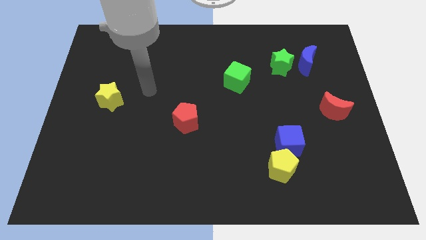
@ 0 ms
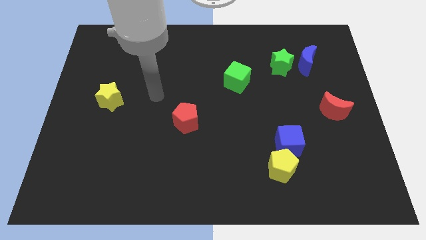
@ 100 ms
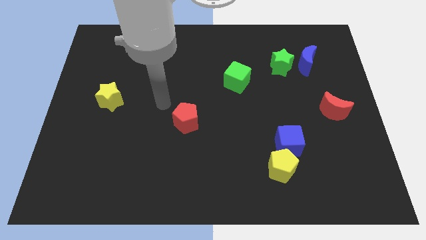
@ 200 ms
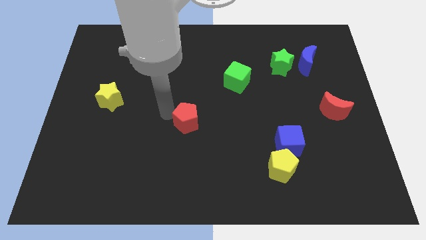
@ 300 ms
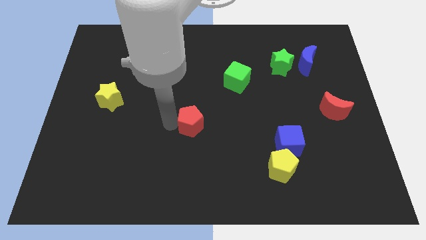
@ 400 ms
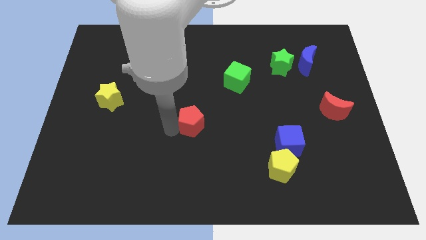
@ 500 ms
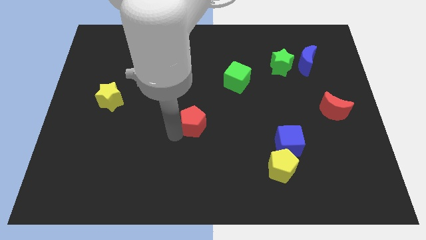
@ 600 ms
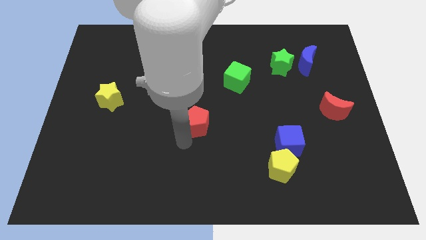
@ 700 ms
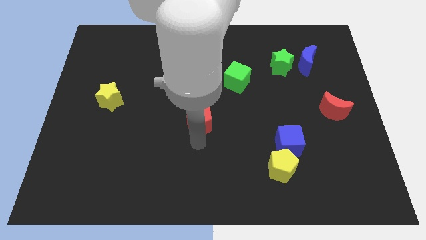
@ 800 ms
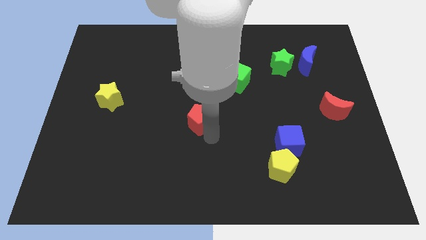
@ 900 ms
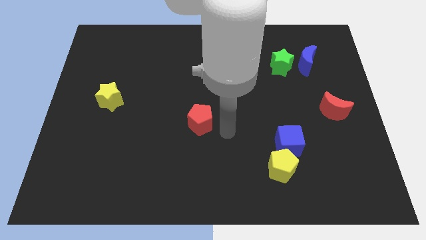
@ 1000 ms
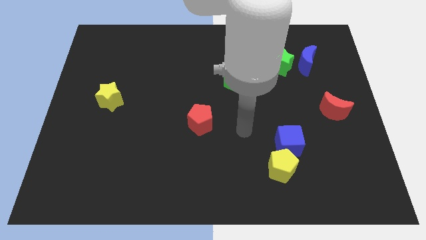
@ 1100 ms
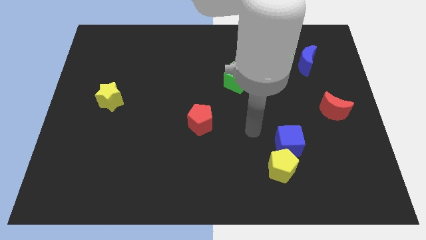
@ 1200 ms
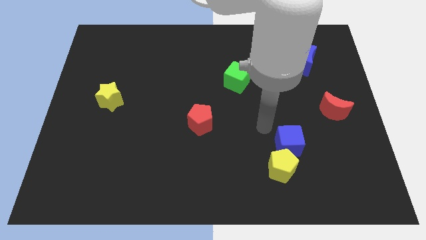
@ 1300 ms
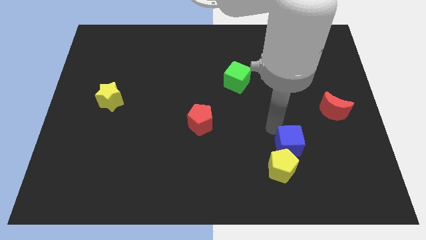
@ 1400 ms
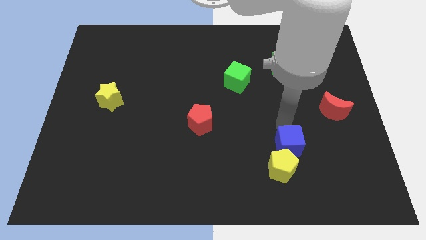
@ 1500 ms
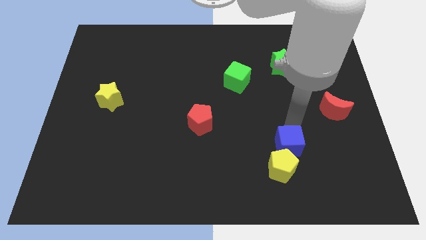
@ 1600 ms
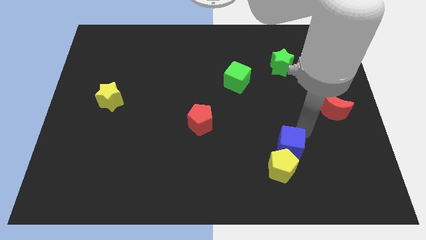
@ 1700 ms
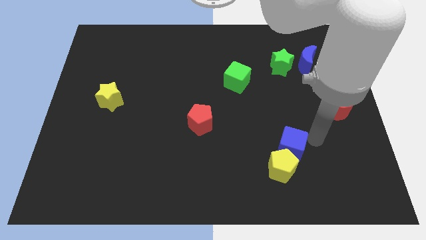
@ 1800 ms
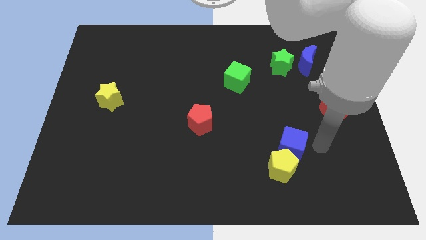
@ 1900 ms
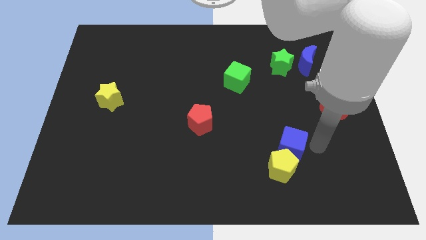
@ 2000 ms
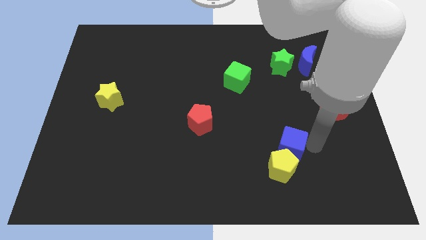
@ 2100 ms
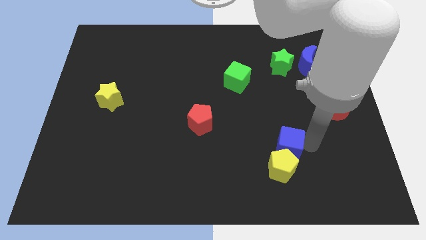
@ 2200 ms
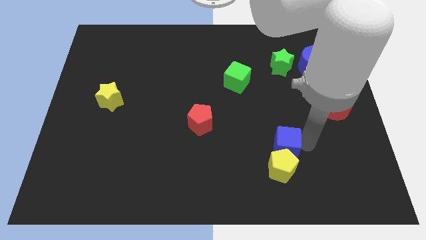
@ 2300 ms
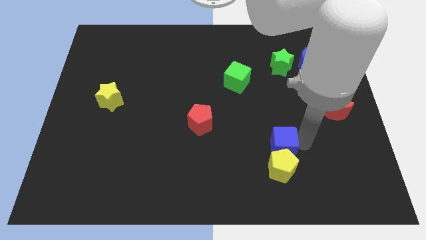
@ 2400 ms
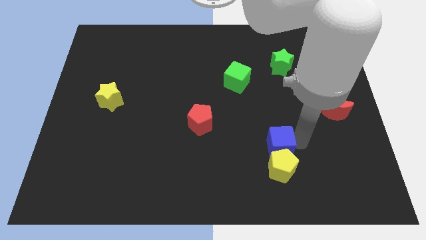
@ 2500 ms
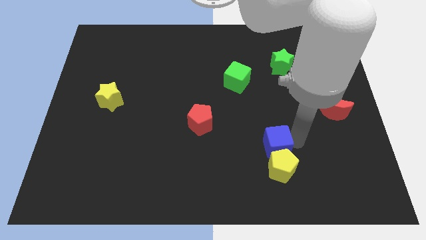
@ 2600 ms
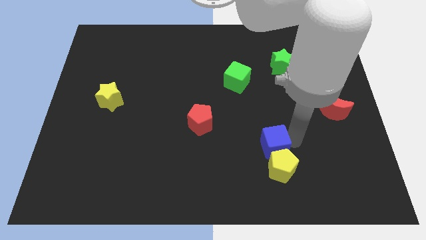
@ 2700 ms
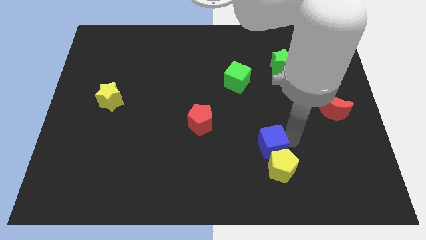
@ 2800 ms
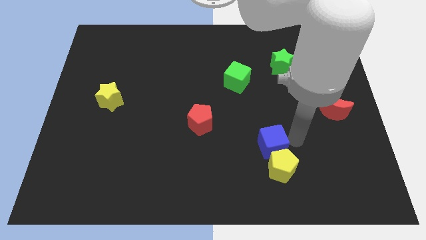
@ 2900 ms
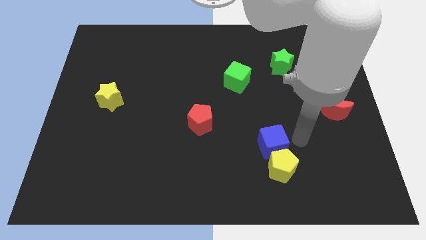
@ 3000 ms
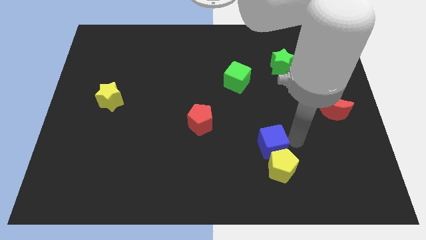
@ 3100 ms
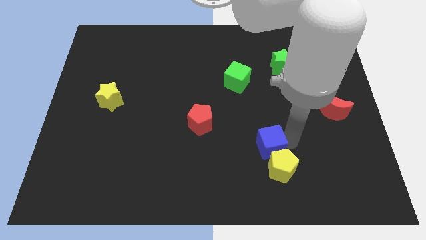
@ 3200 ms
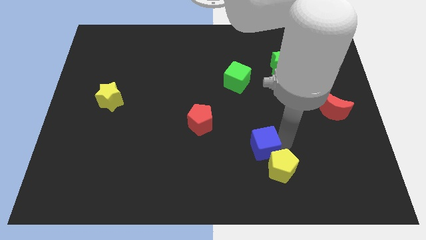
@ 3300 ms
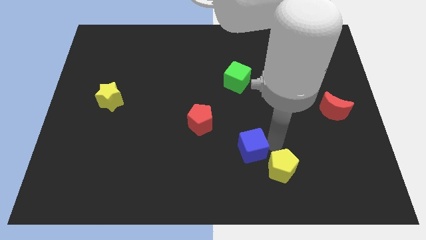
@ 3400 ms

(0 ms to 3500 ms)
move the blue cube a little bit left

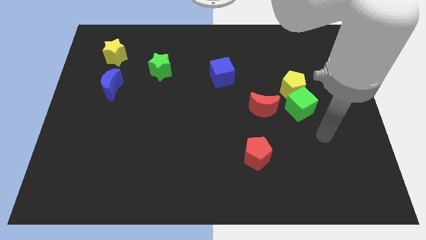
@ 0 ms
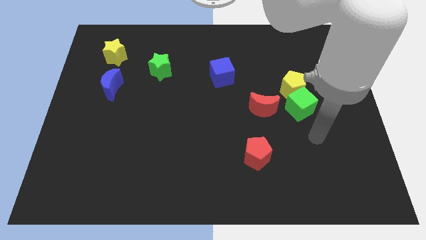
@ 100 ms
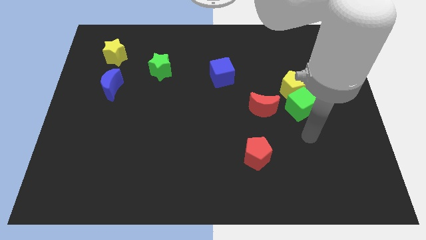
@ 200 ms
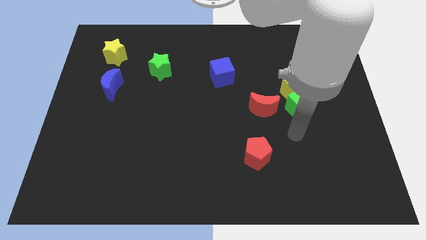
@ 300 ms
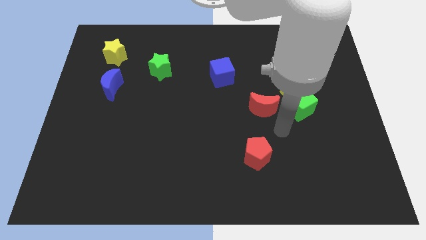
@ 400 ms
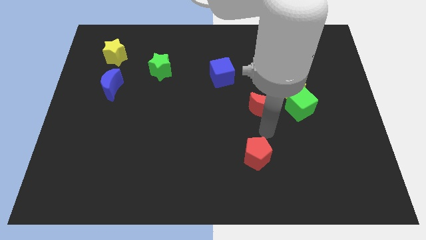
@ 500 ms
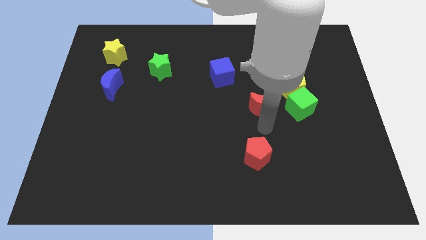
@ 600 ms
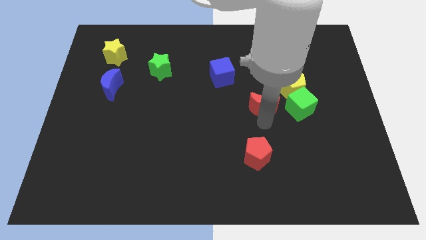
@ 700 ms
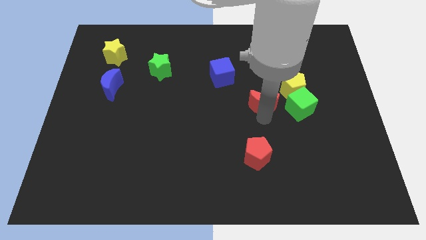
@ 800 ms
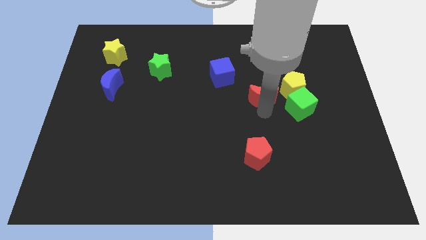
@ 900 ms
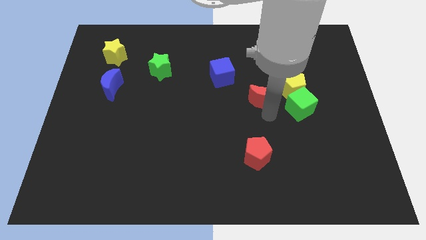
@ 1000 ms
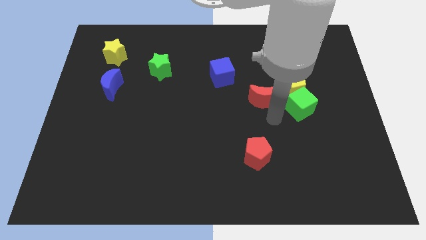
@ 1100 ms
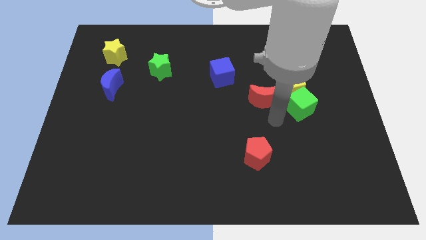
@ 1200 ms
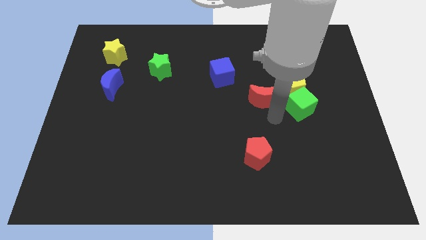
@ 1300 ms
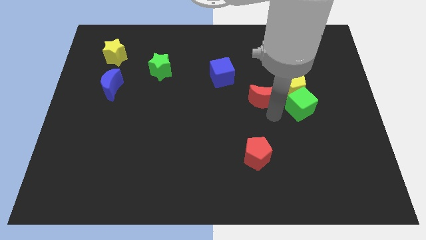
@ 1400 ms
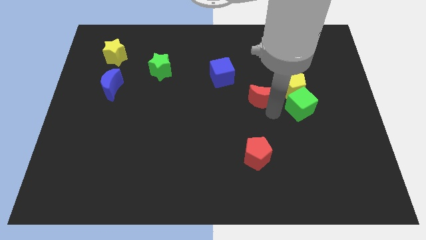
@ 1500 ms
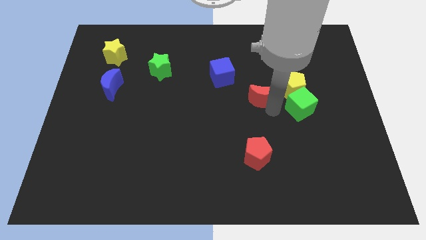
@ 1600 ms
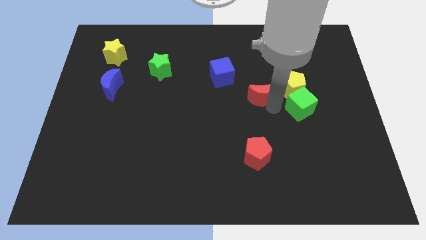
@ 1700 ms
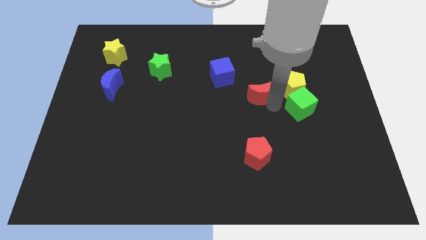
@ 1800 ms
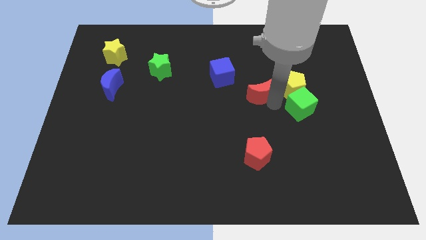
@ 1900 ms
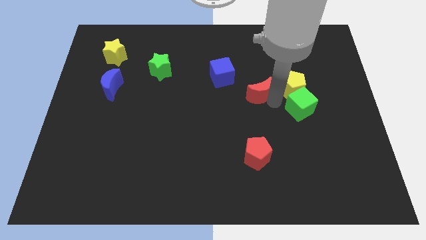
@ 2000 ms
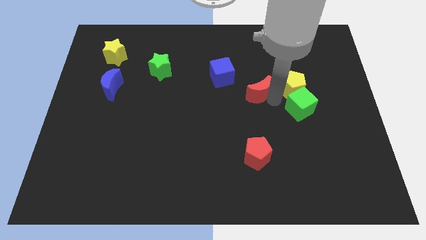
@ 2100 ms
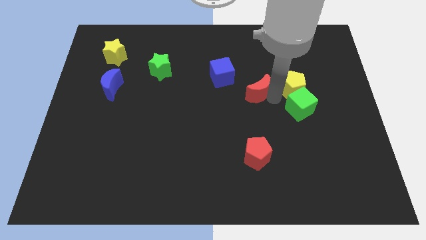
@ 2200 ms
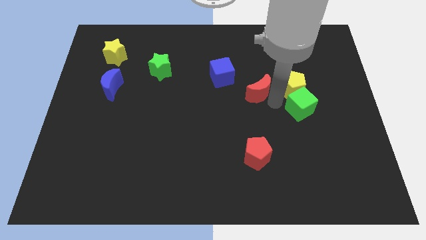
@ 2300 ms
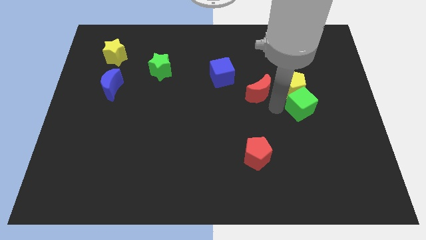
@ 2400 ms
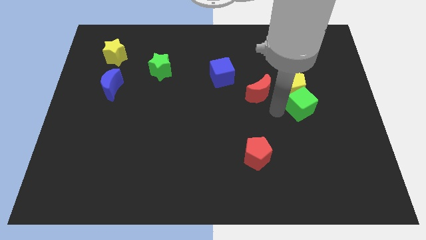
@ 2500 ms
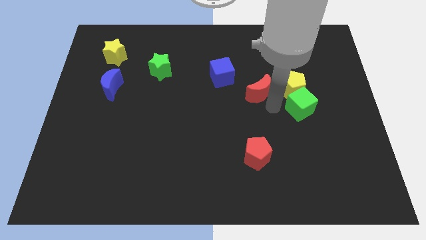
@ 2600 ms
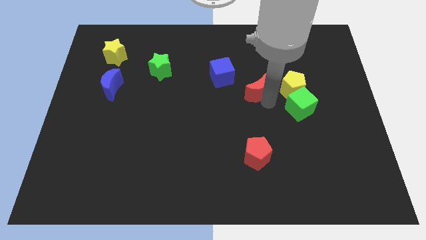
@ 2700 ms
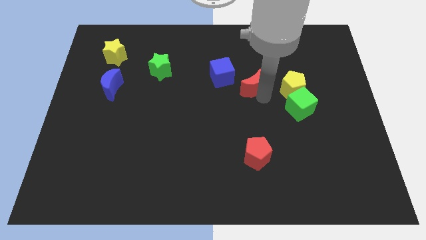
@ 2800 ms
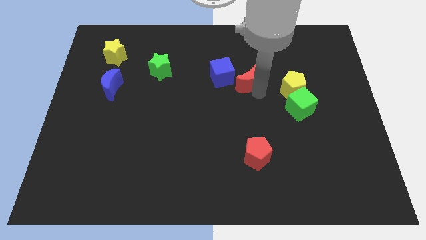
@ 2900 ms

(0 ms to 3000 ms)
slightly push the red moon up and left diagonally

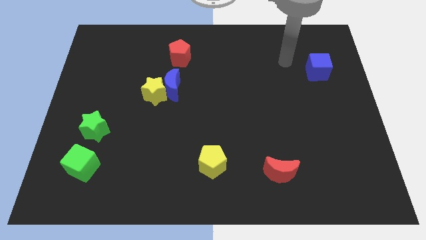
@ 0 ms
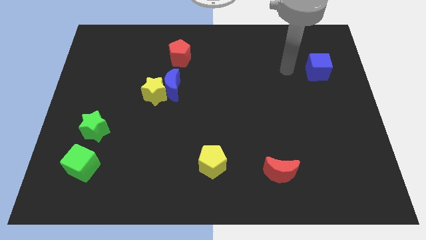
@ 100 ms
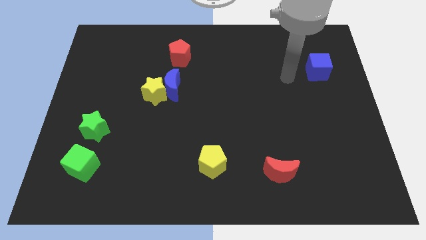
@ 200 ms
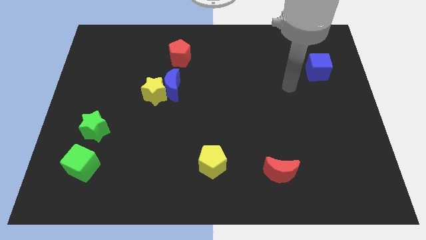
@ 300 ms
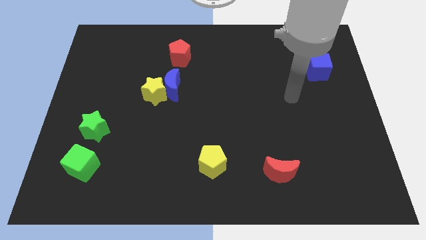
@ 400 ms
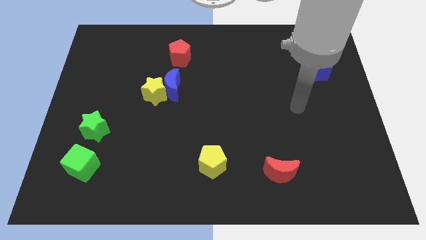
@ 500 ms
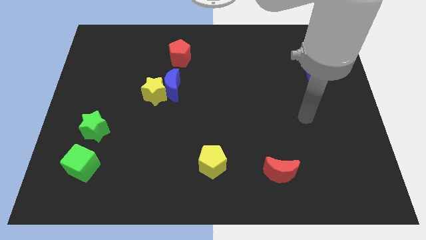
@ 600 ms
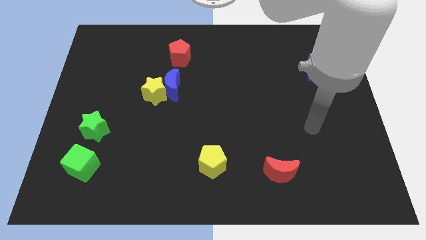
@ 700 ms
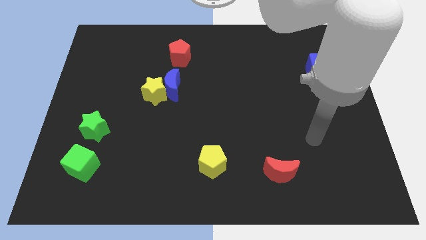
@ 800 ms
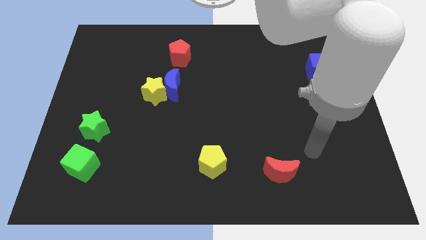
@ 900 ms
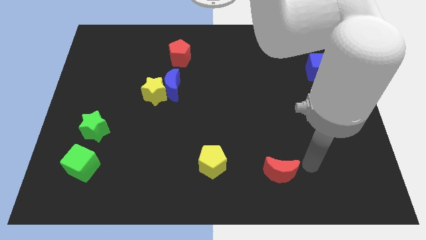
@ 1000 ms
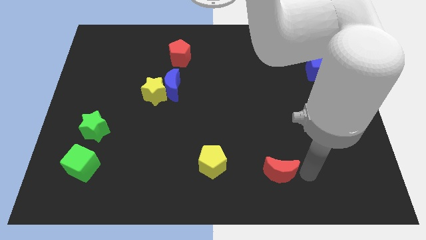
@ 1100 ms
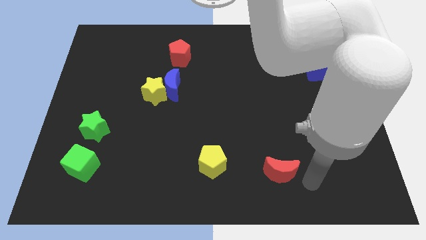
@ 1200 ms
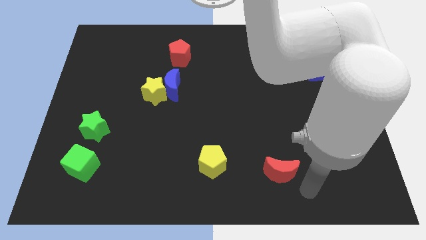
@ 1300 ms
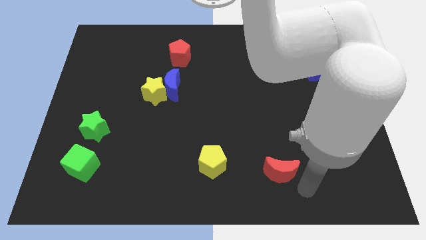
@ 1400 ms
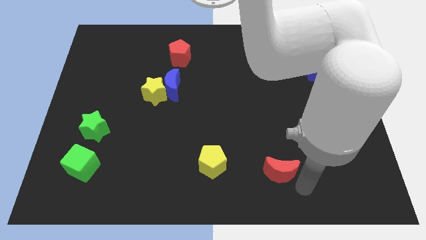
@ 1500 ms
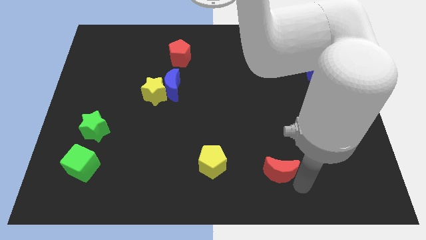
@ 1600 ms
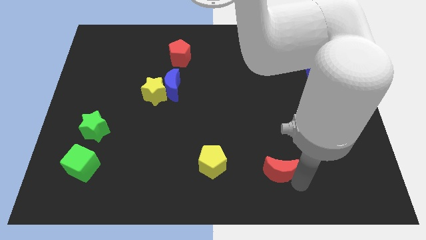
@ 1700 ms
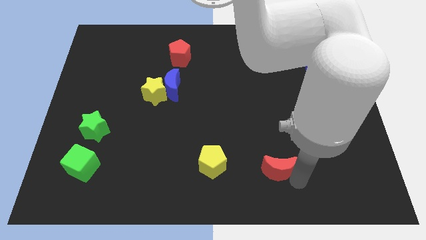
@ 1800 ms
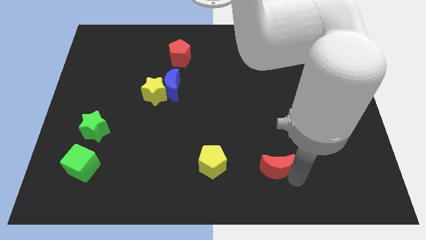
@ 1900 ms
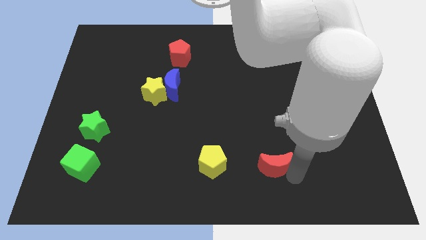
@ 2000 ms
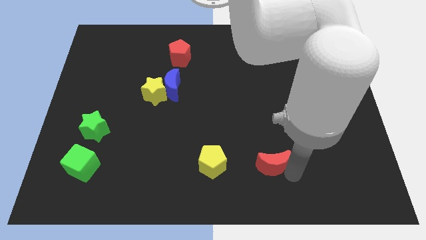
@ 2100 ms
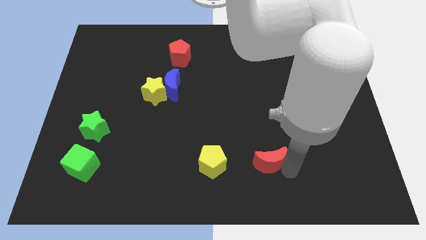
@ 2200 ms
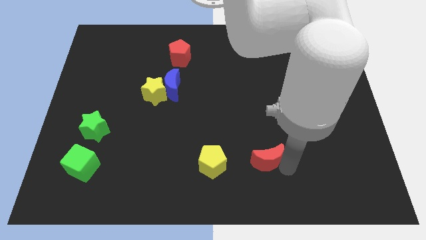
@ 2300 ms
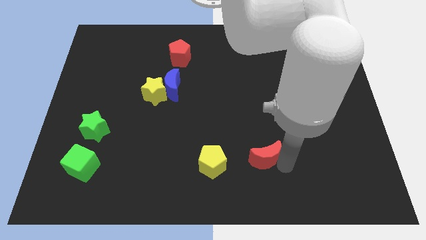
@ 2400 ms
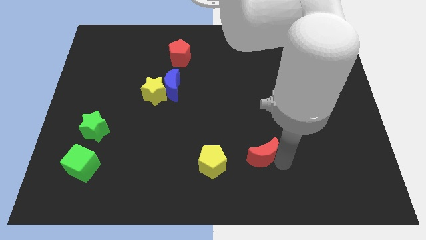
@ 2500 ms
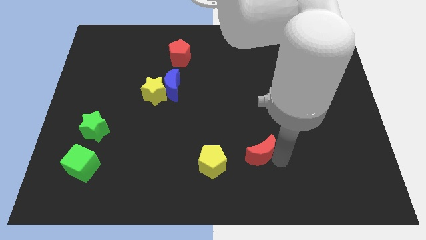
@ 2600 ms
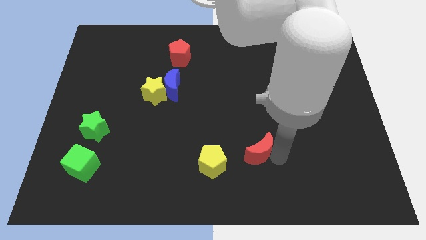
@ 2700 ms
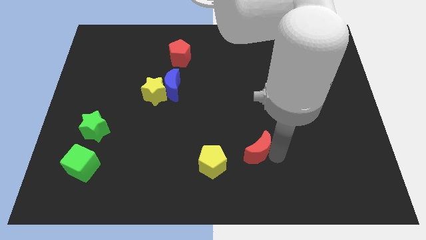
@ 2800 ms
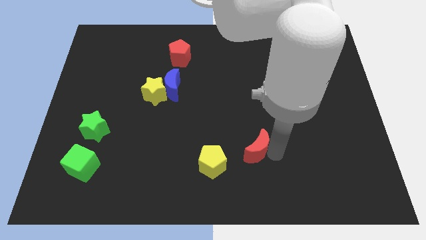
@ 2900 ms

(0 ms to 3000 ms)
slightly move the red moon up and to the left diagonally
